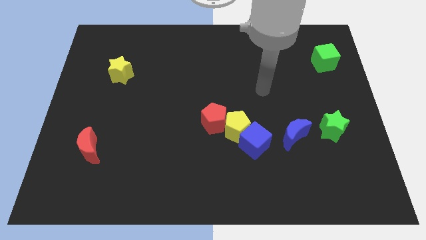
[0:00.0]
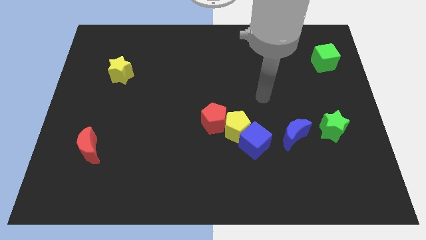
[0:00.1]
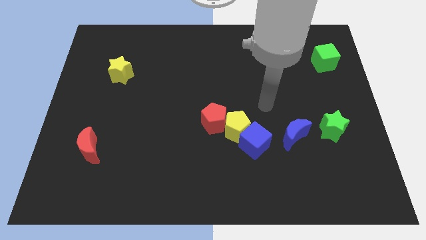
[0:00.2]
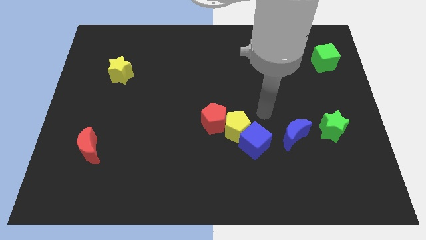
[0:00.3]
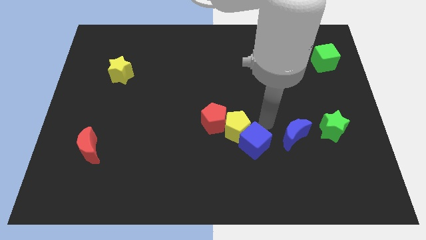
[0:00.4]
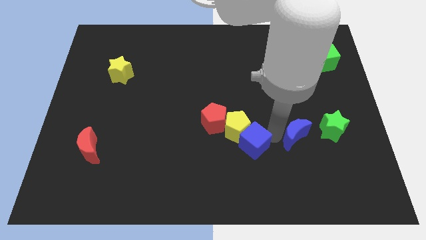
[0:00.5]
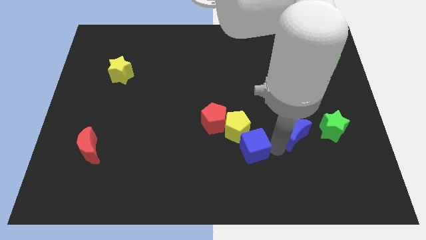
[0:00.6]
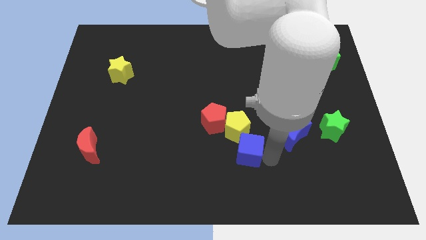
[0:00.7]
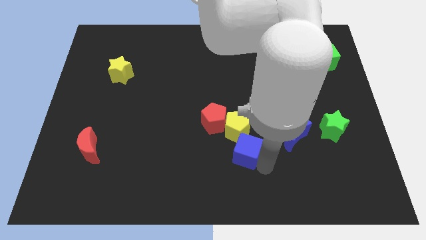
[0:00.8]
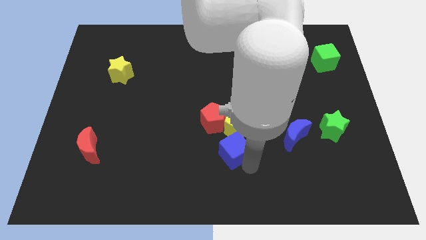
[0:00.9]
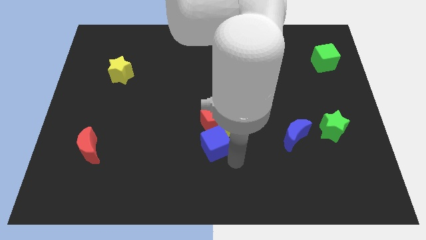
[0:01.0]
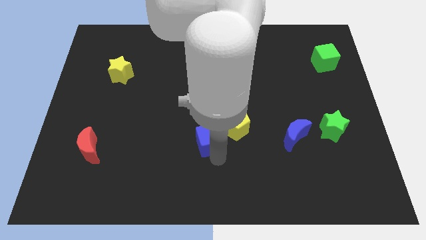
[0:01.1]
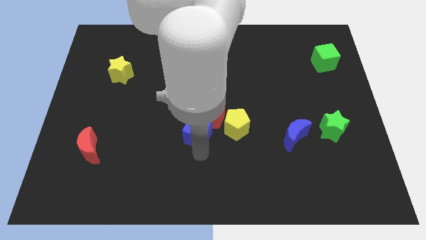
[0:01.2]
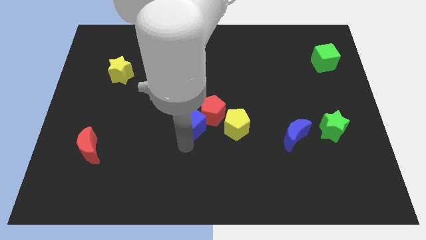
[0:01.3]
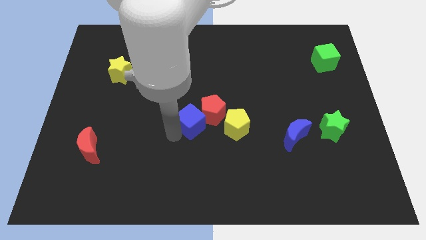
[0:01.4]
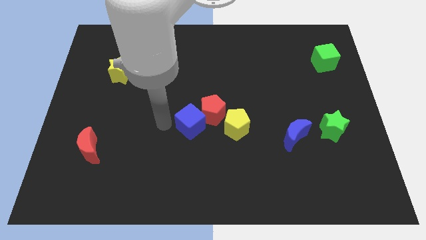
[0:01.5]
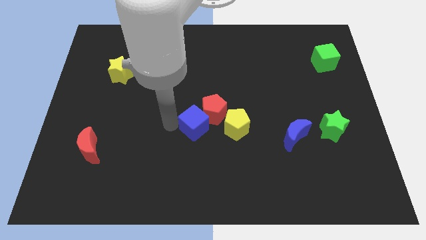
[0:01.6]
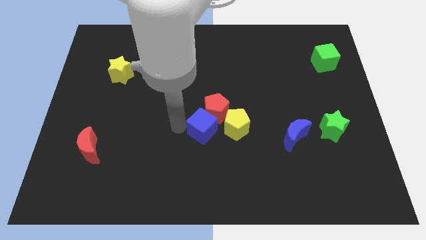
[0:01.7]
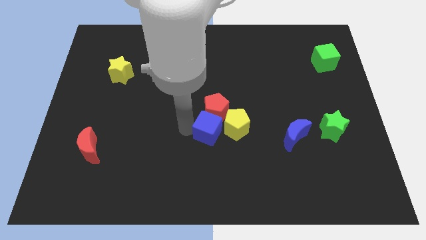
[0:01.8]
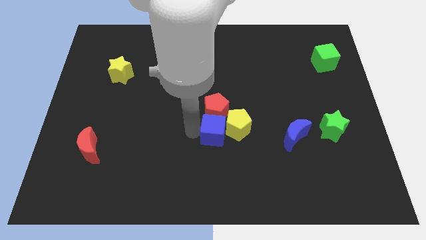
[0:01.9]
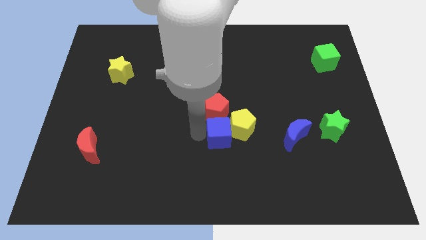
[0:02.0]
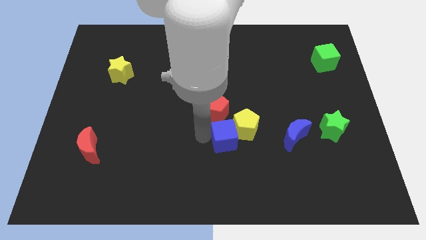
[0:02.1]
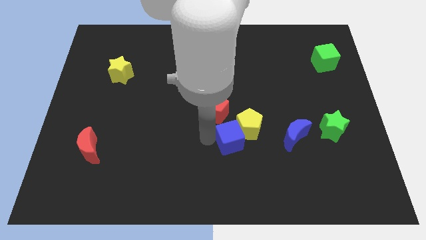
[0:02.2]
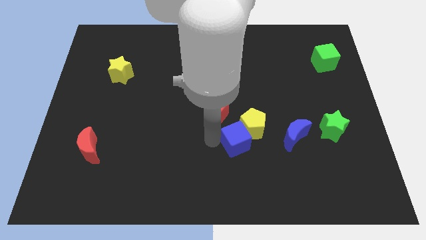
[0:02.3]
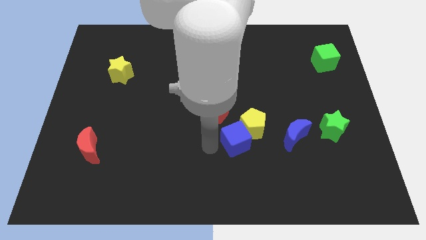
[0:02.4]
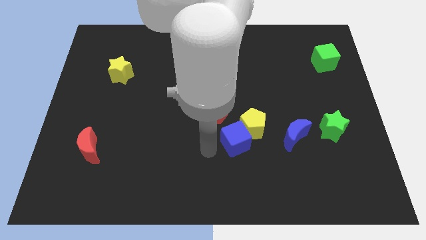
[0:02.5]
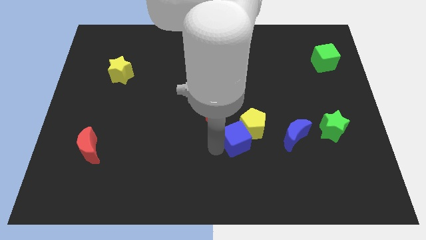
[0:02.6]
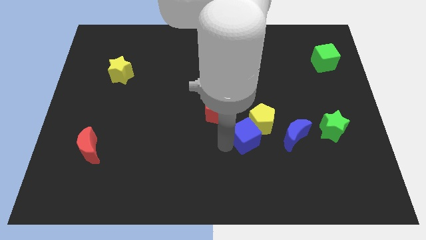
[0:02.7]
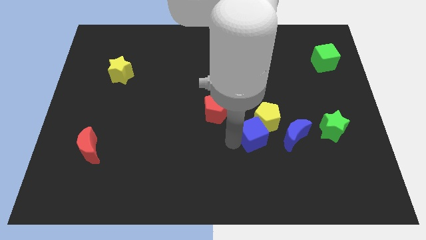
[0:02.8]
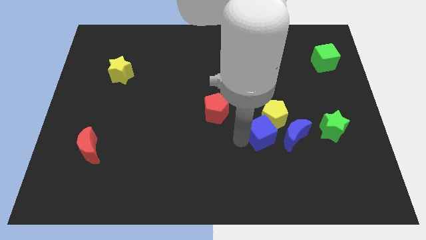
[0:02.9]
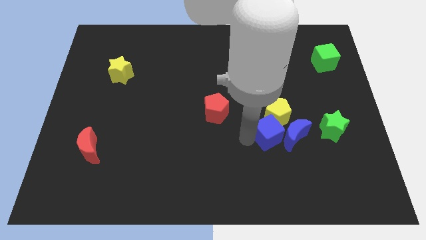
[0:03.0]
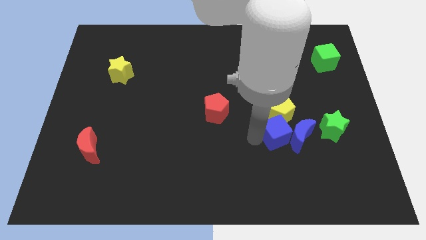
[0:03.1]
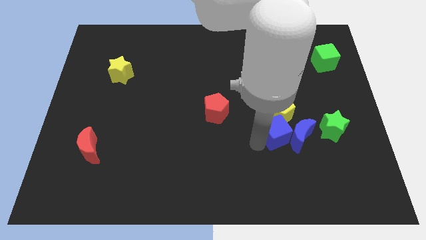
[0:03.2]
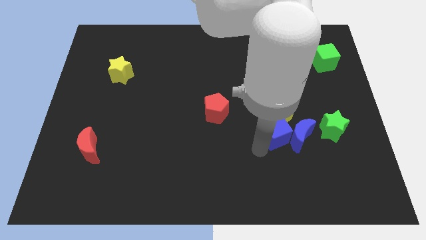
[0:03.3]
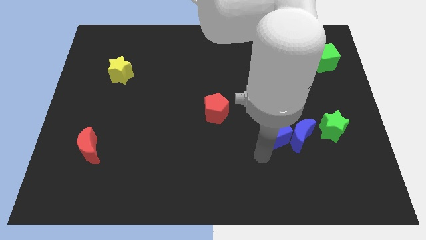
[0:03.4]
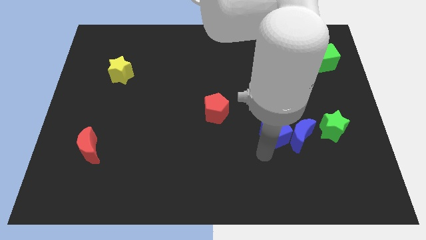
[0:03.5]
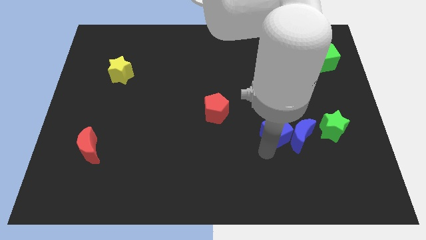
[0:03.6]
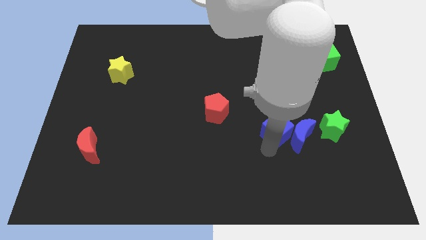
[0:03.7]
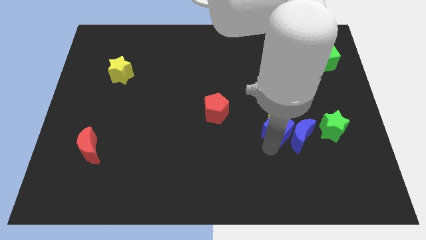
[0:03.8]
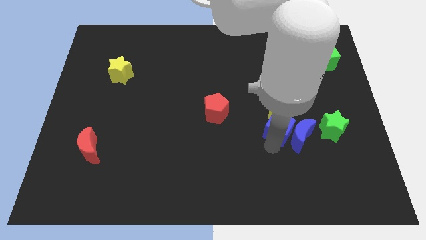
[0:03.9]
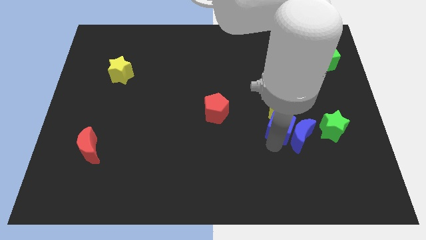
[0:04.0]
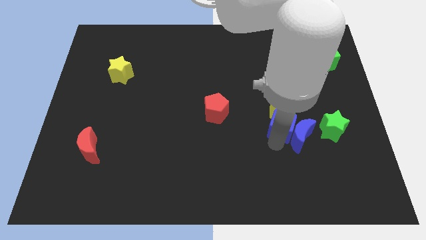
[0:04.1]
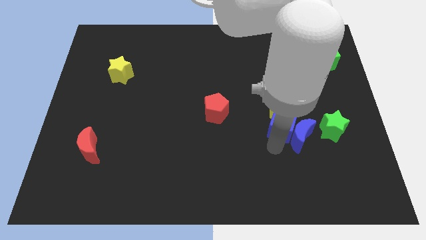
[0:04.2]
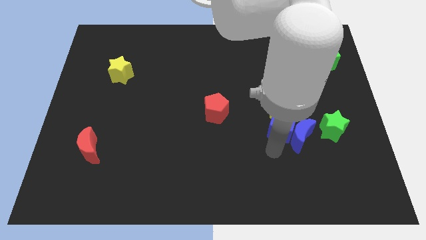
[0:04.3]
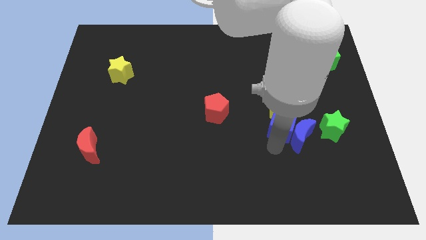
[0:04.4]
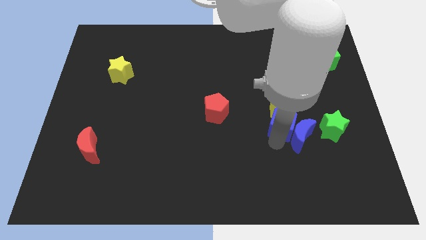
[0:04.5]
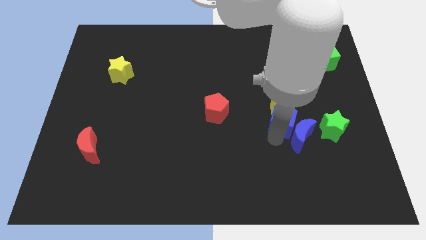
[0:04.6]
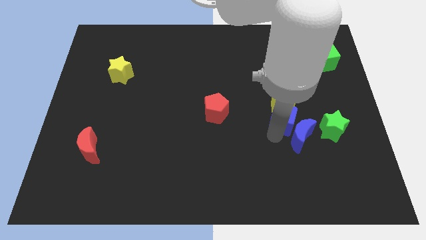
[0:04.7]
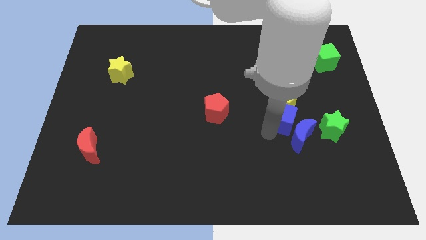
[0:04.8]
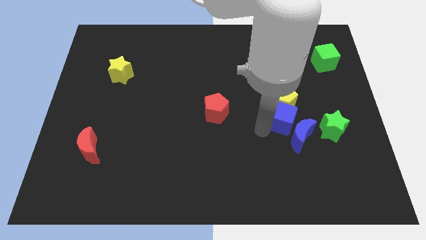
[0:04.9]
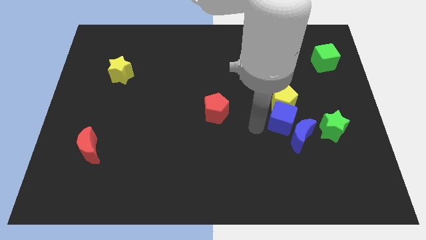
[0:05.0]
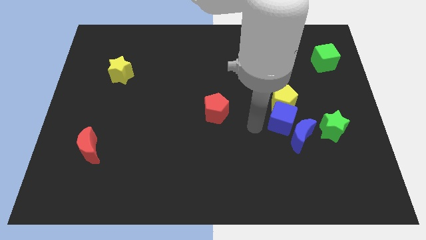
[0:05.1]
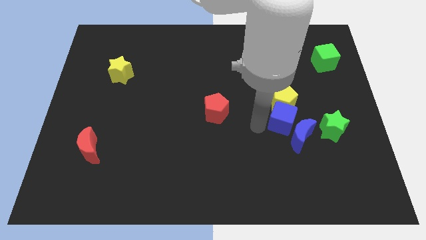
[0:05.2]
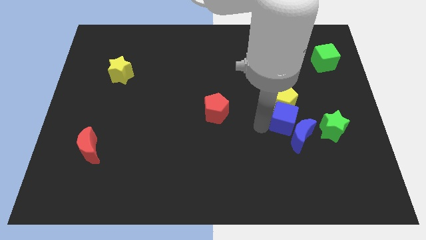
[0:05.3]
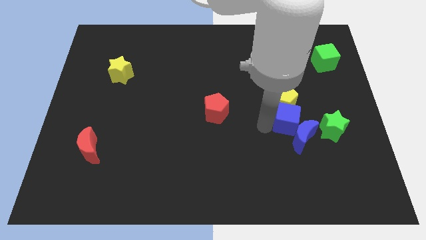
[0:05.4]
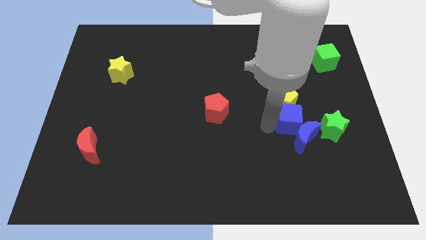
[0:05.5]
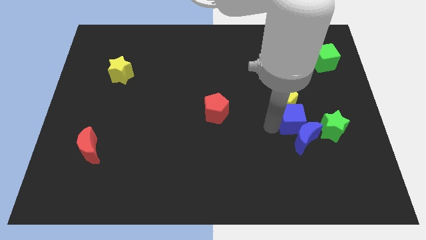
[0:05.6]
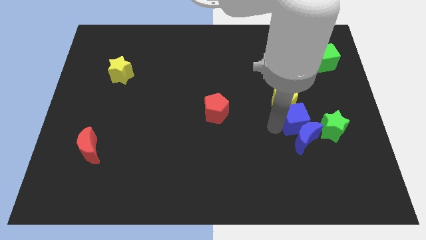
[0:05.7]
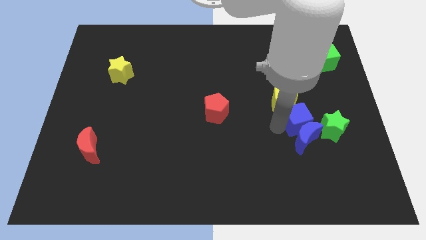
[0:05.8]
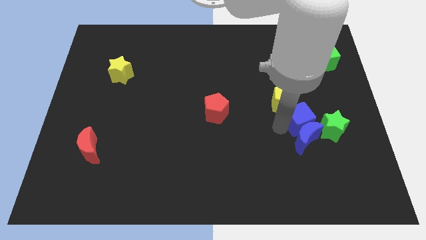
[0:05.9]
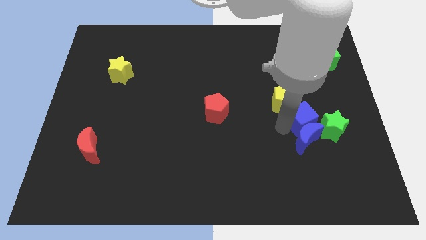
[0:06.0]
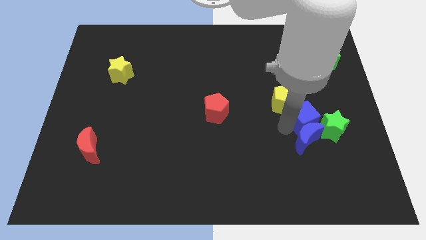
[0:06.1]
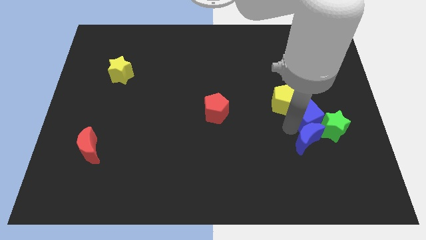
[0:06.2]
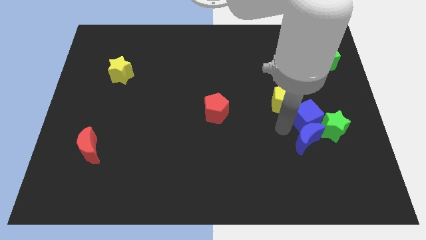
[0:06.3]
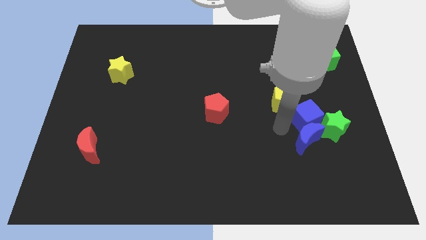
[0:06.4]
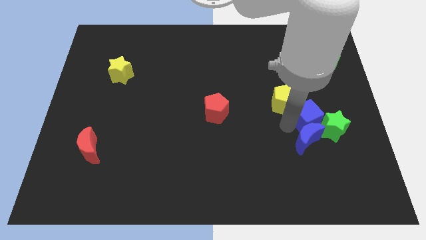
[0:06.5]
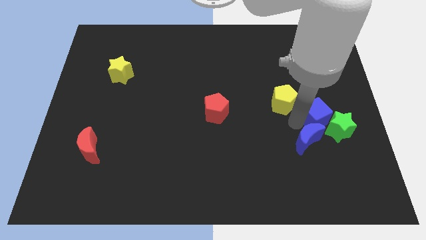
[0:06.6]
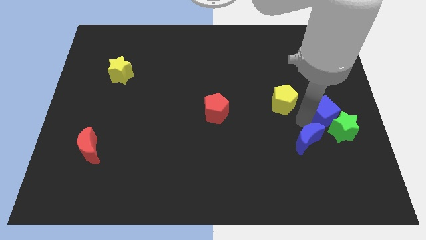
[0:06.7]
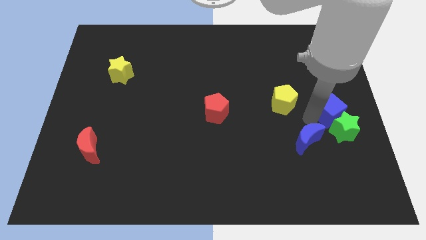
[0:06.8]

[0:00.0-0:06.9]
push the blue cube to the right side
